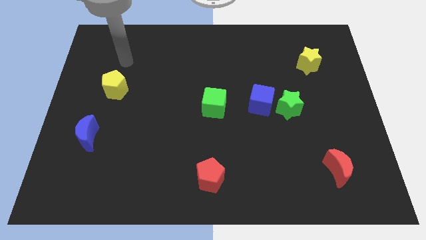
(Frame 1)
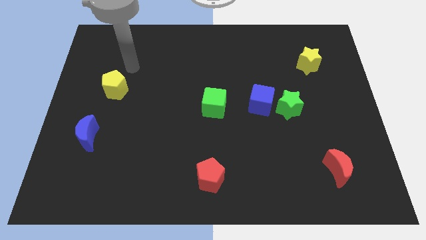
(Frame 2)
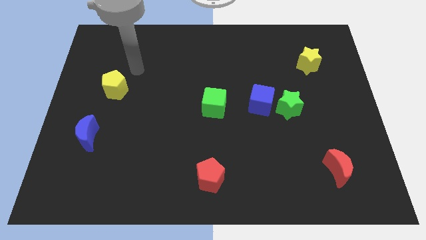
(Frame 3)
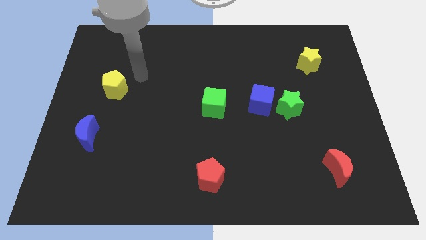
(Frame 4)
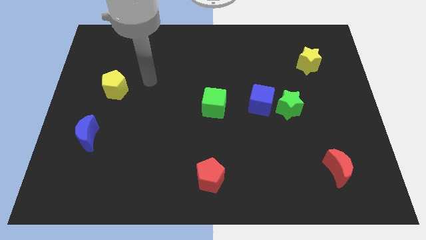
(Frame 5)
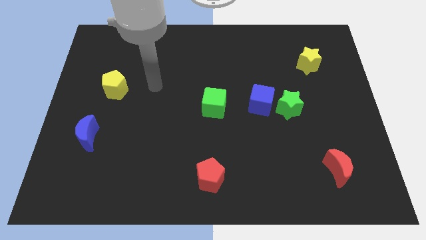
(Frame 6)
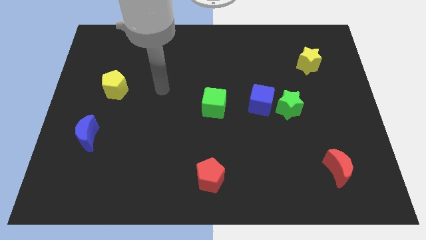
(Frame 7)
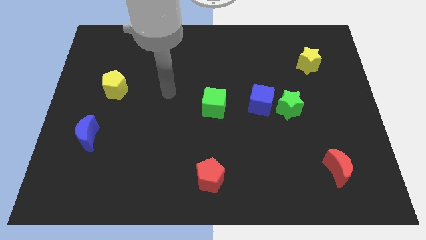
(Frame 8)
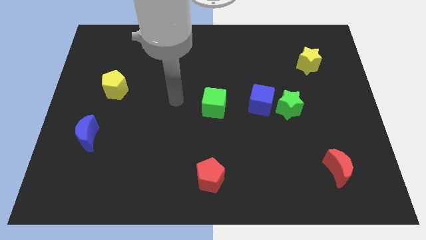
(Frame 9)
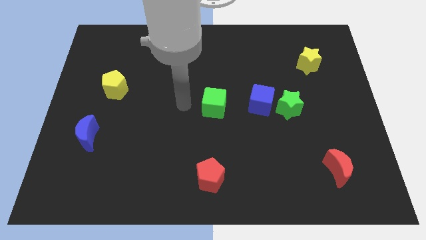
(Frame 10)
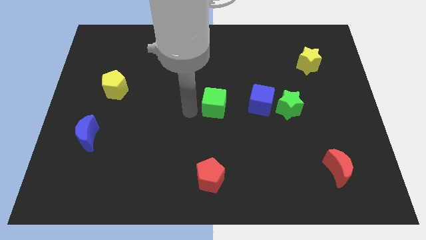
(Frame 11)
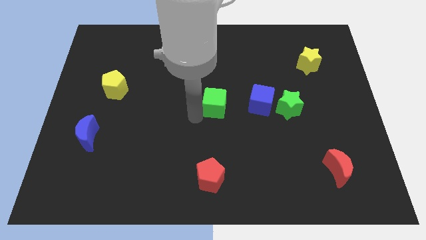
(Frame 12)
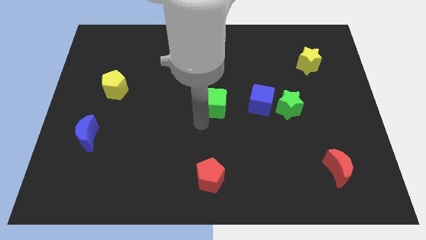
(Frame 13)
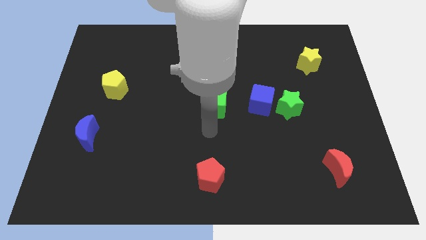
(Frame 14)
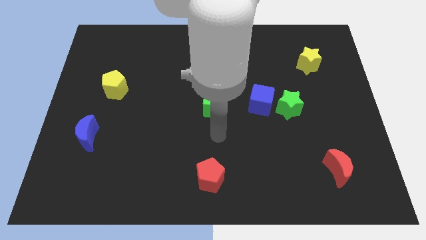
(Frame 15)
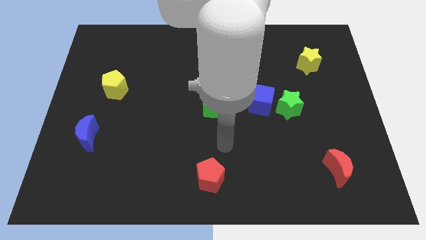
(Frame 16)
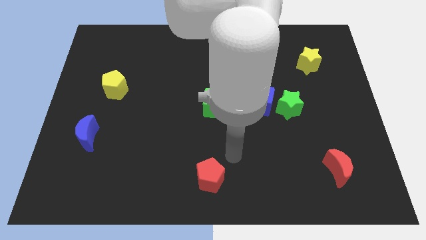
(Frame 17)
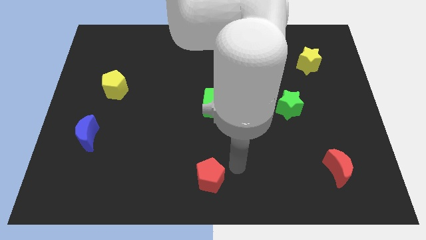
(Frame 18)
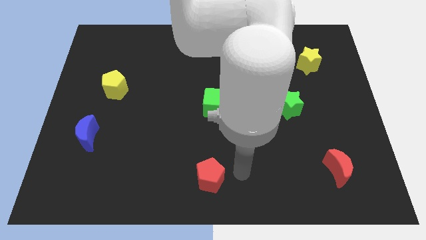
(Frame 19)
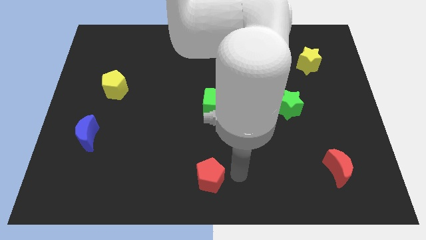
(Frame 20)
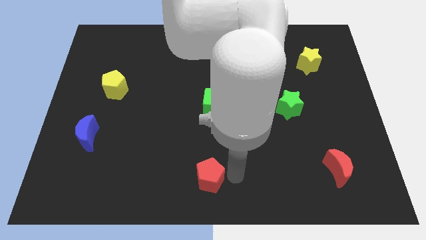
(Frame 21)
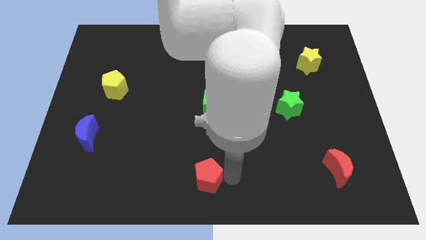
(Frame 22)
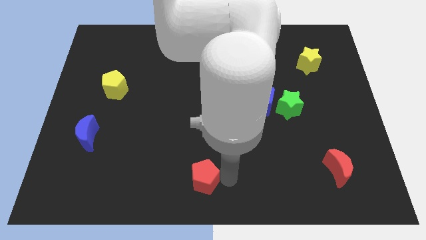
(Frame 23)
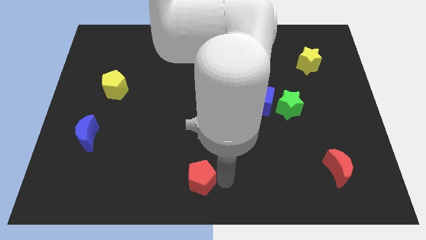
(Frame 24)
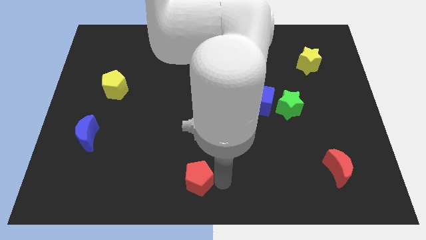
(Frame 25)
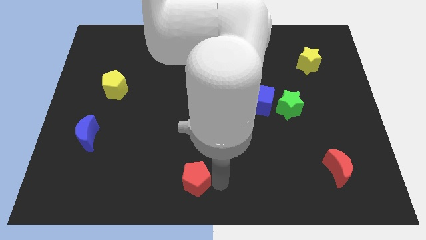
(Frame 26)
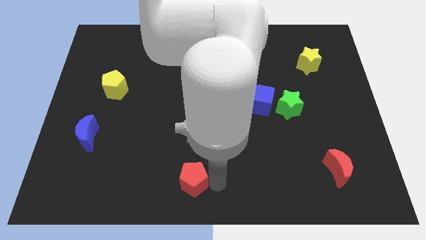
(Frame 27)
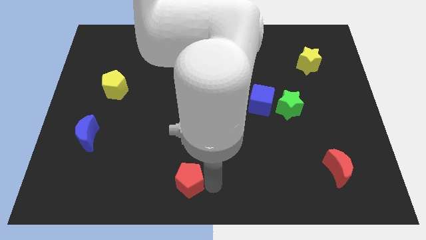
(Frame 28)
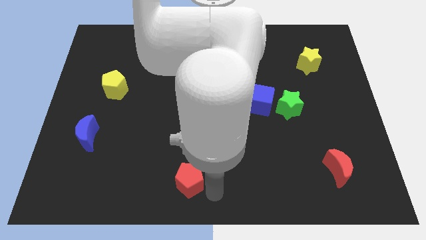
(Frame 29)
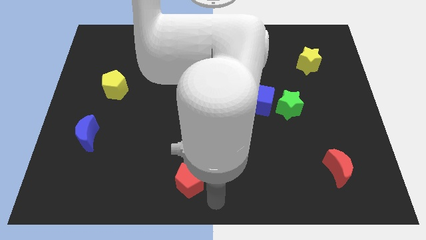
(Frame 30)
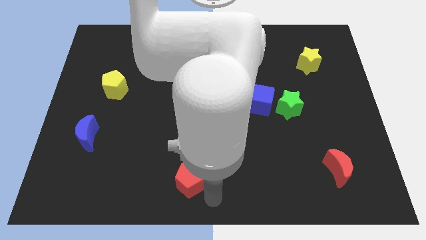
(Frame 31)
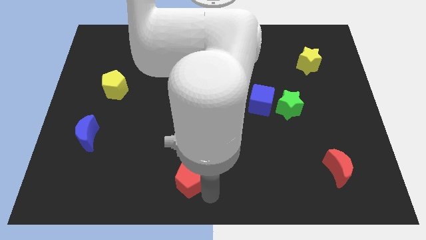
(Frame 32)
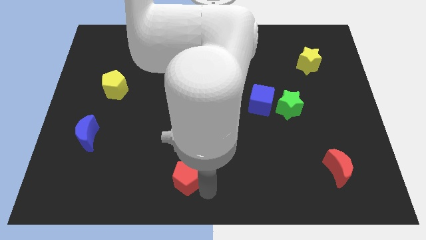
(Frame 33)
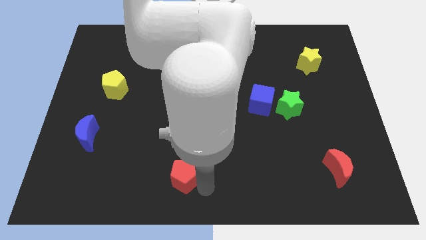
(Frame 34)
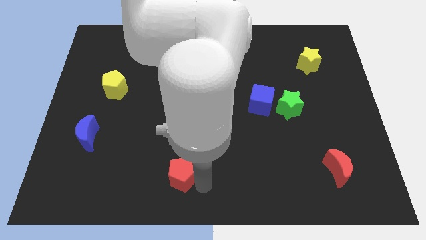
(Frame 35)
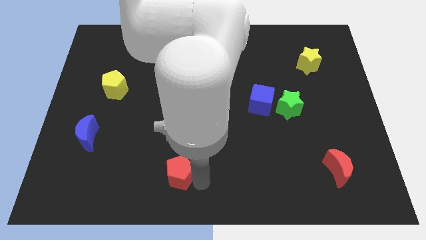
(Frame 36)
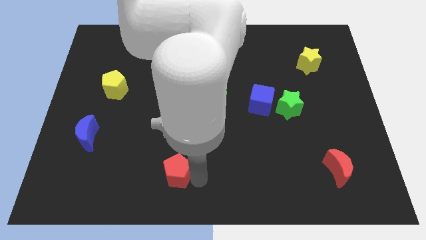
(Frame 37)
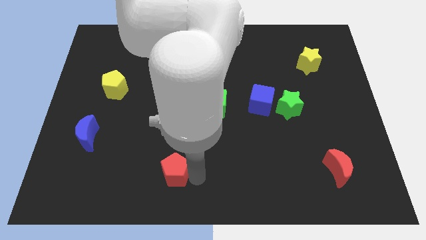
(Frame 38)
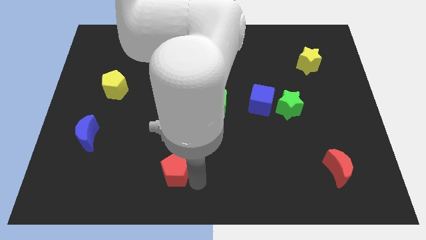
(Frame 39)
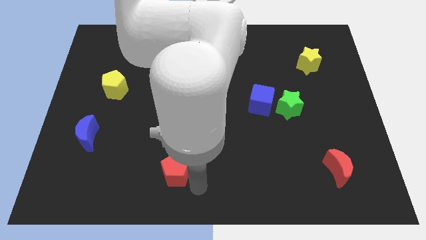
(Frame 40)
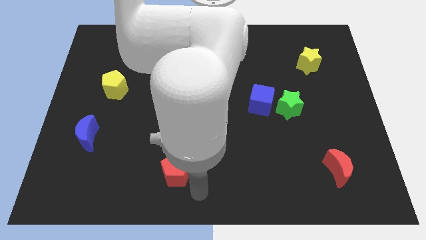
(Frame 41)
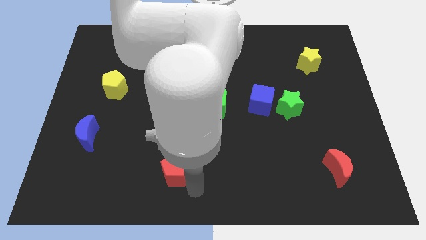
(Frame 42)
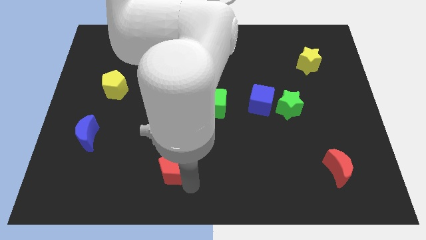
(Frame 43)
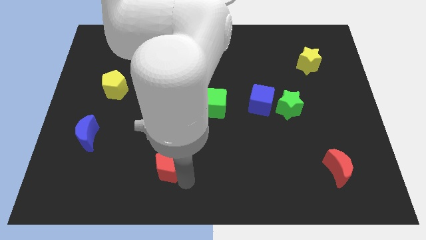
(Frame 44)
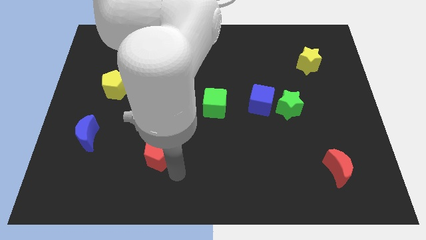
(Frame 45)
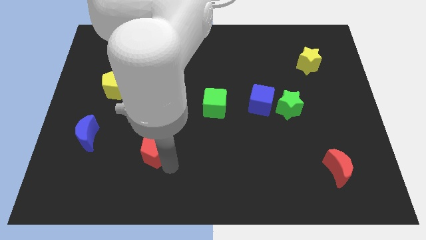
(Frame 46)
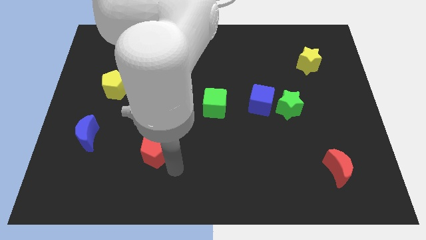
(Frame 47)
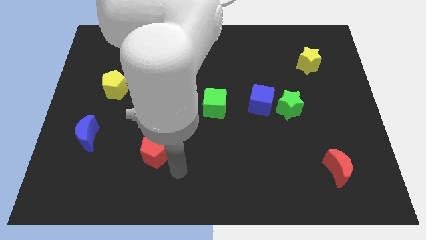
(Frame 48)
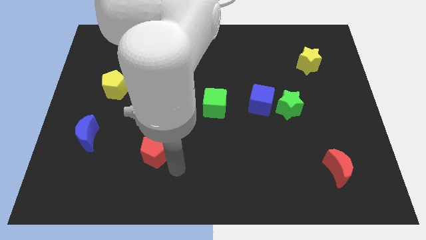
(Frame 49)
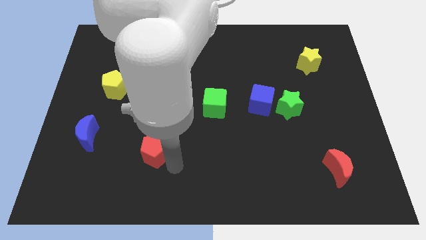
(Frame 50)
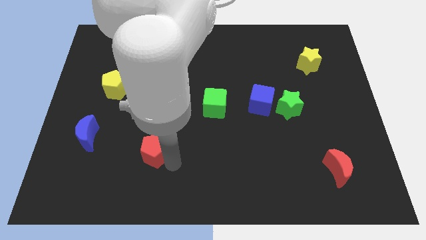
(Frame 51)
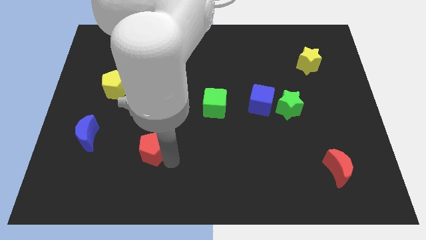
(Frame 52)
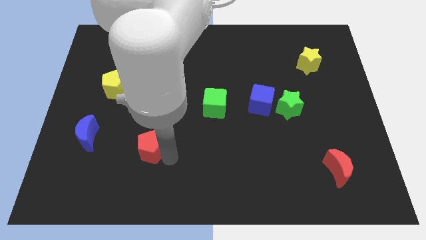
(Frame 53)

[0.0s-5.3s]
put the red pentagon right of the blue moon

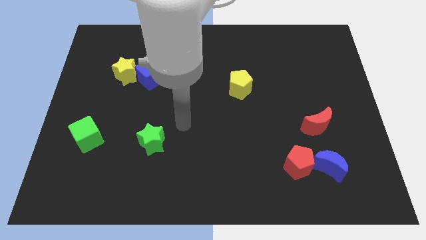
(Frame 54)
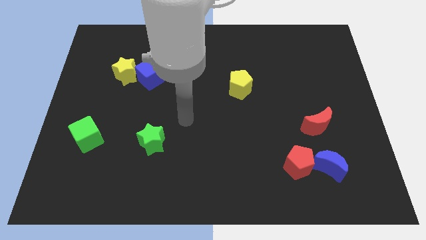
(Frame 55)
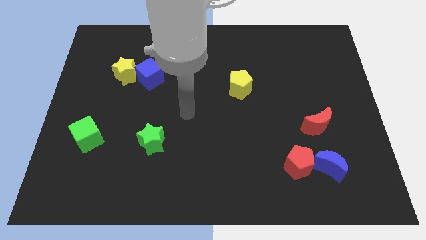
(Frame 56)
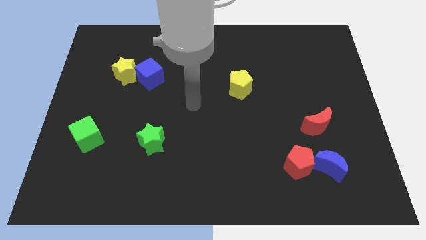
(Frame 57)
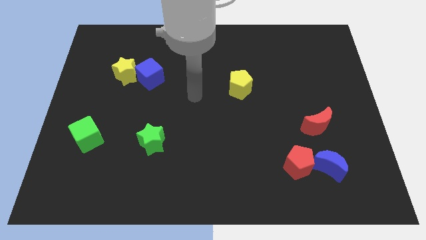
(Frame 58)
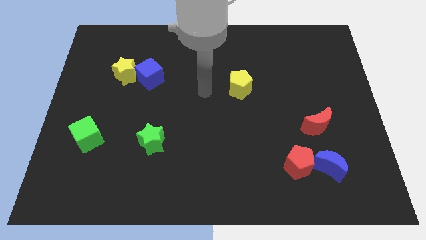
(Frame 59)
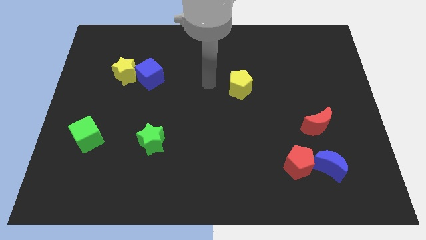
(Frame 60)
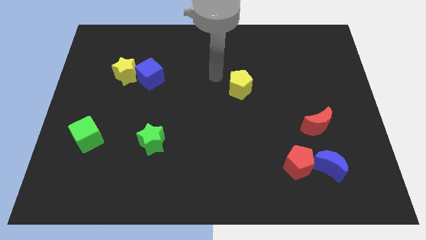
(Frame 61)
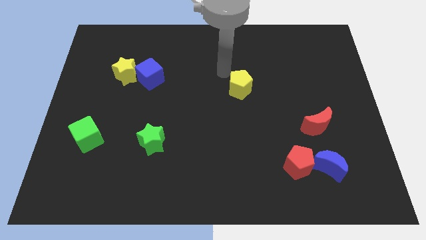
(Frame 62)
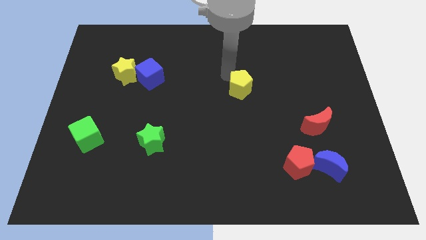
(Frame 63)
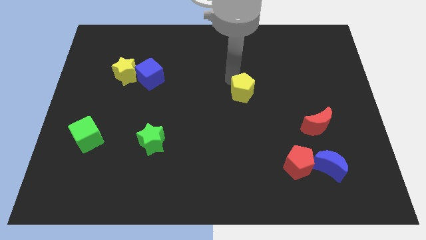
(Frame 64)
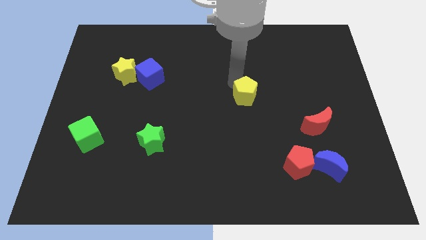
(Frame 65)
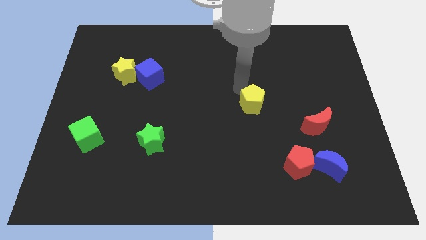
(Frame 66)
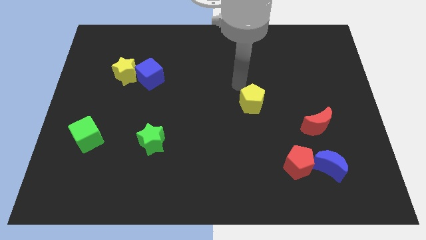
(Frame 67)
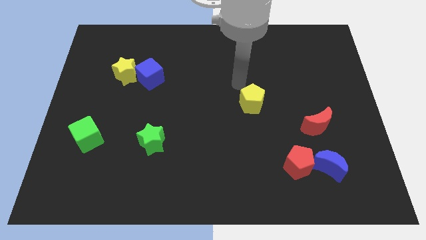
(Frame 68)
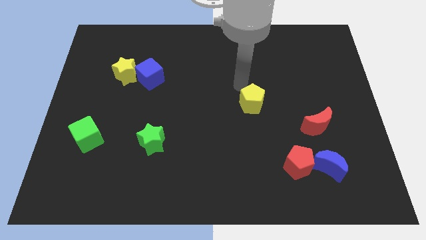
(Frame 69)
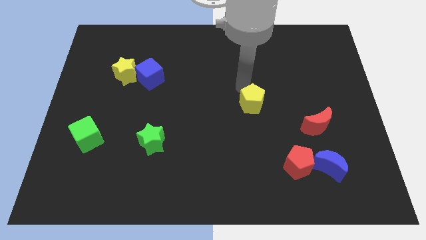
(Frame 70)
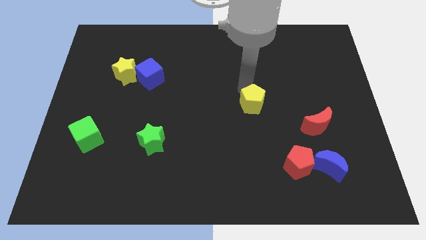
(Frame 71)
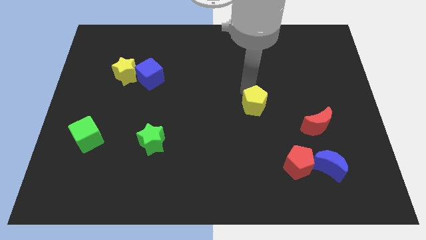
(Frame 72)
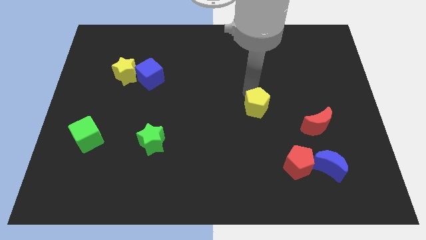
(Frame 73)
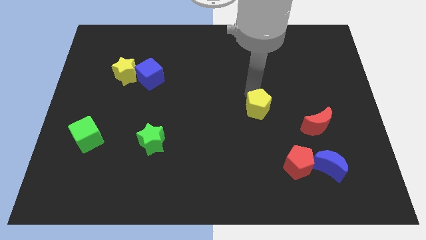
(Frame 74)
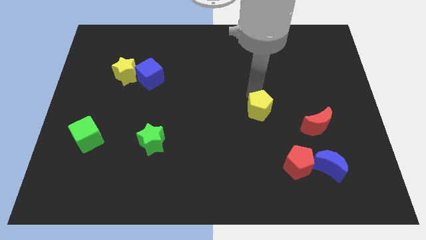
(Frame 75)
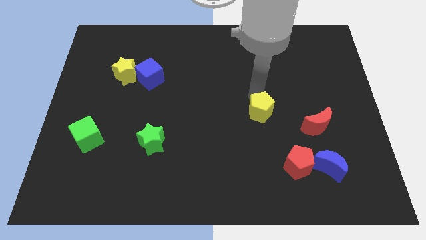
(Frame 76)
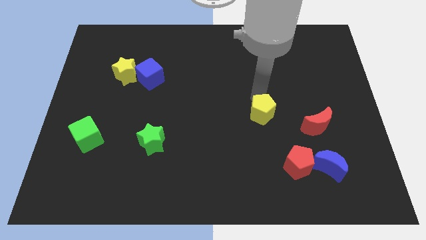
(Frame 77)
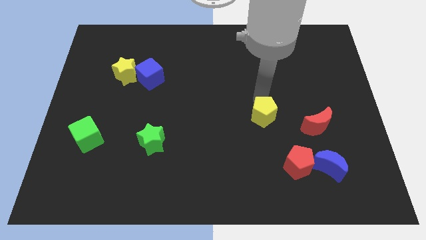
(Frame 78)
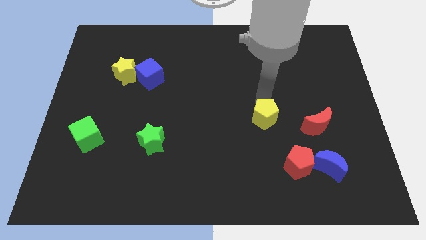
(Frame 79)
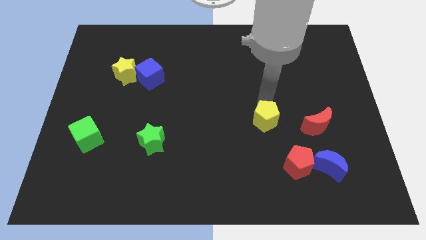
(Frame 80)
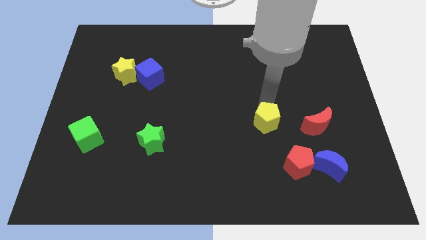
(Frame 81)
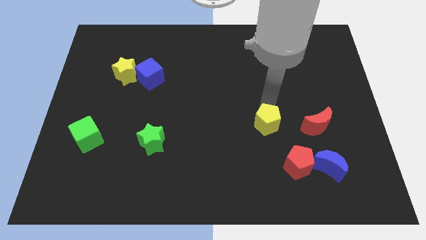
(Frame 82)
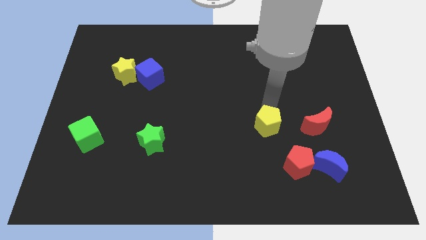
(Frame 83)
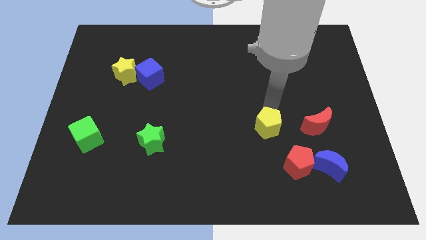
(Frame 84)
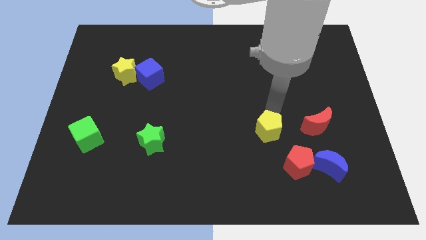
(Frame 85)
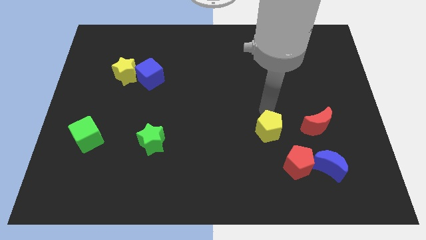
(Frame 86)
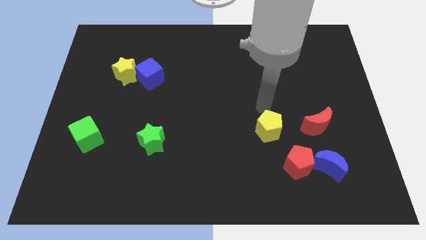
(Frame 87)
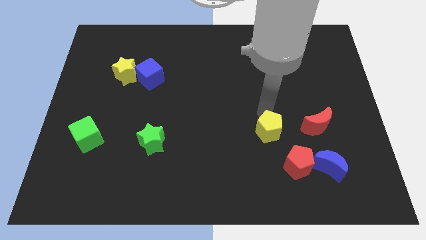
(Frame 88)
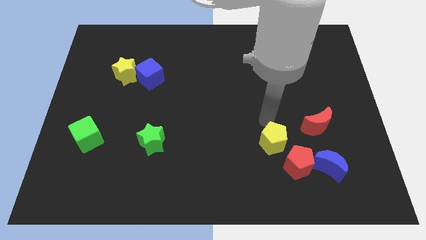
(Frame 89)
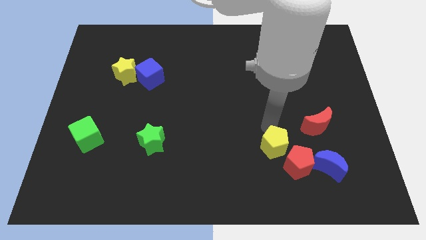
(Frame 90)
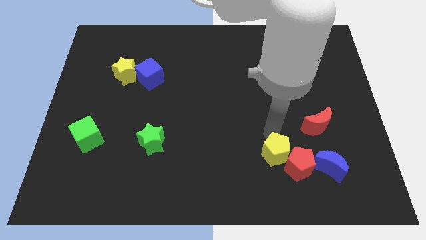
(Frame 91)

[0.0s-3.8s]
put the yellow pentagon just left of the blue moon
